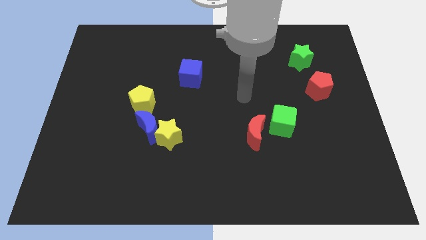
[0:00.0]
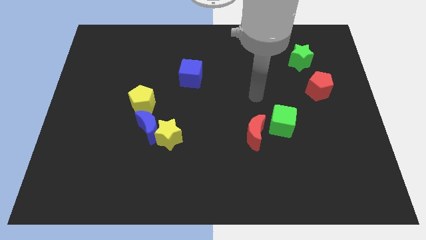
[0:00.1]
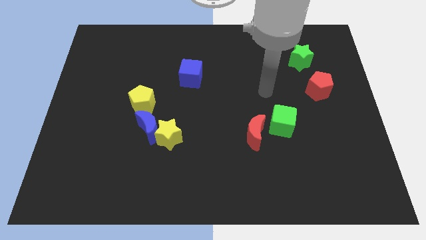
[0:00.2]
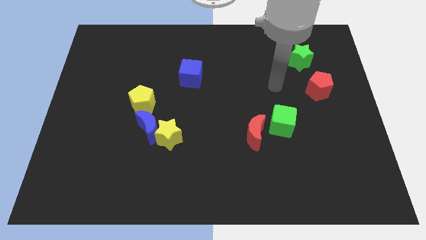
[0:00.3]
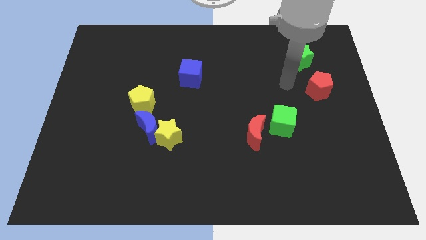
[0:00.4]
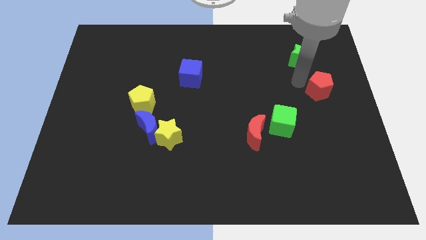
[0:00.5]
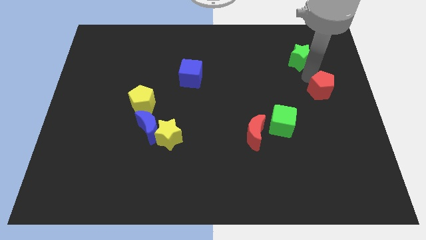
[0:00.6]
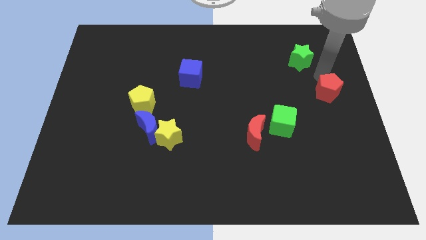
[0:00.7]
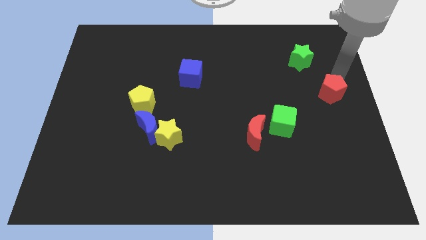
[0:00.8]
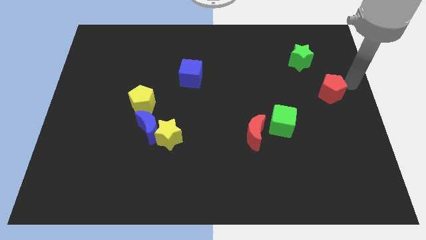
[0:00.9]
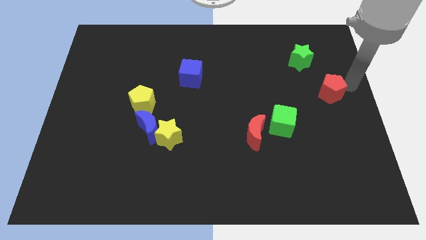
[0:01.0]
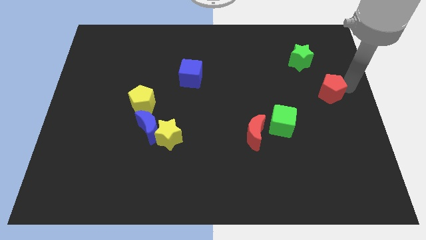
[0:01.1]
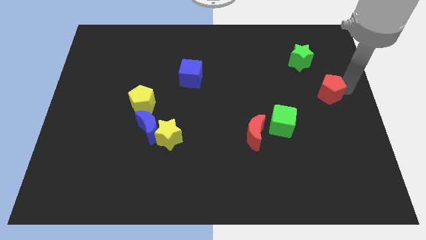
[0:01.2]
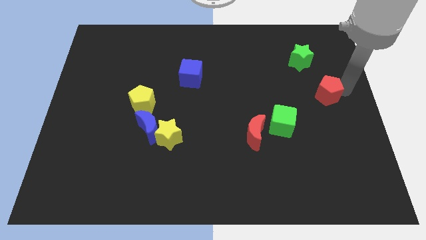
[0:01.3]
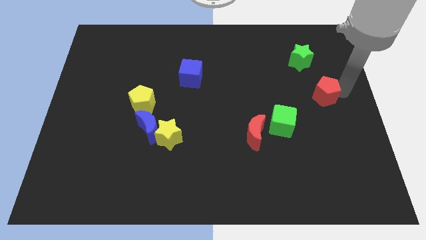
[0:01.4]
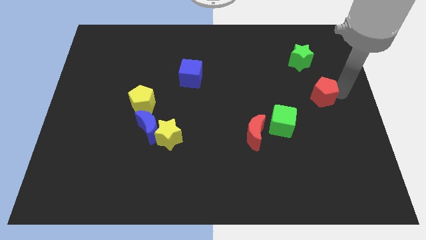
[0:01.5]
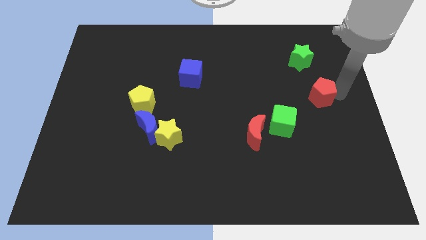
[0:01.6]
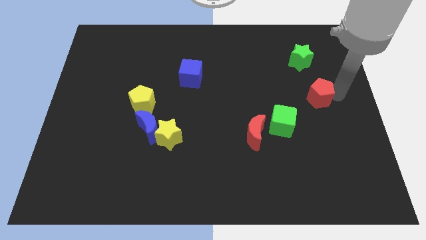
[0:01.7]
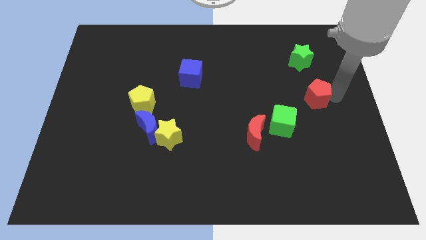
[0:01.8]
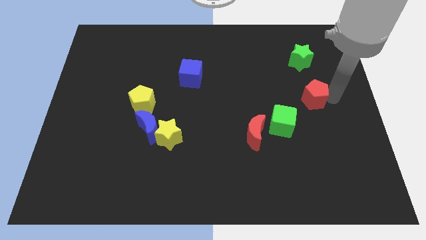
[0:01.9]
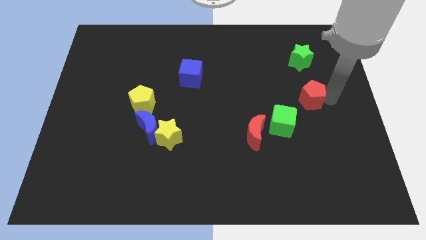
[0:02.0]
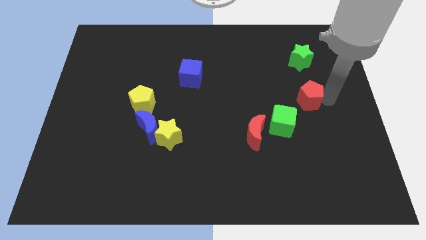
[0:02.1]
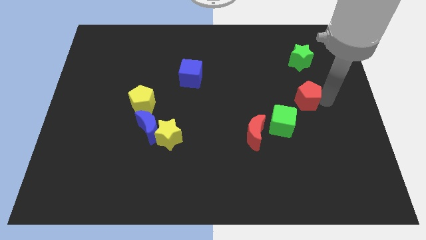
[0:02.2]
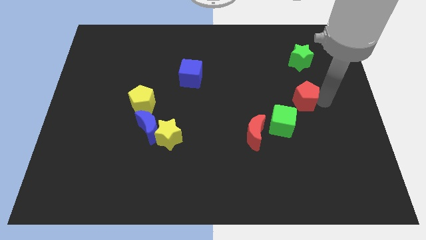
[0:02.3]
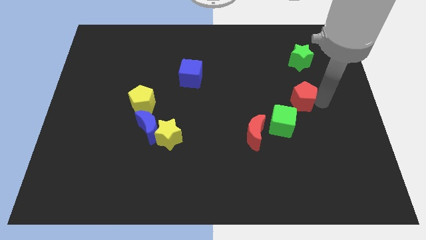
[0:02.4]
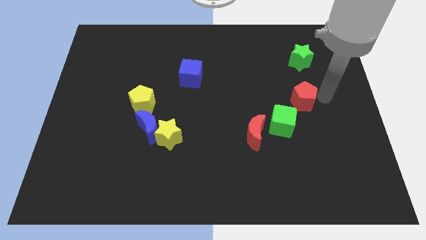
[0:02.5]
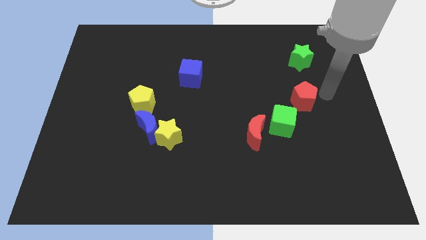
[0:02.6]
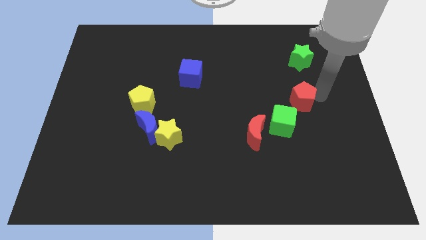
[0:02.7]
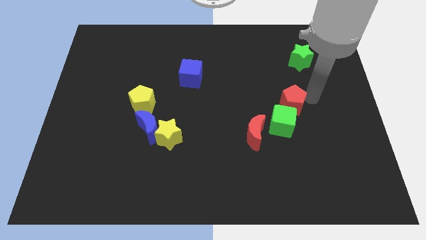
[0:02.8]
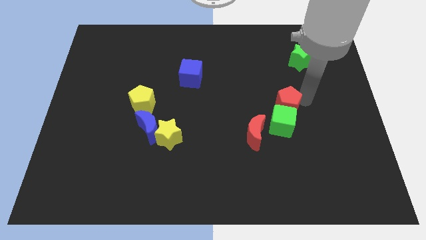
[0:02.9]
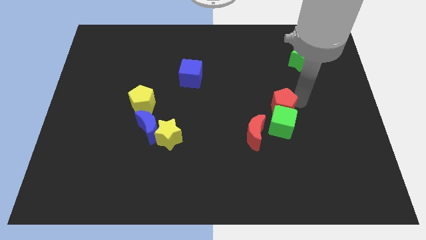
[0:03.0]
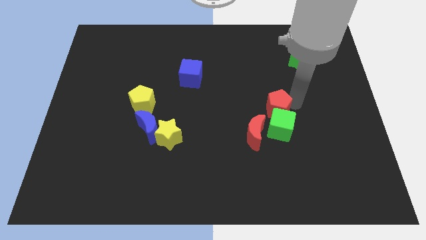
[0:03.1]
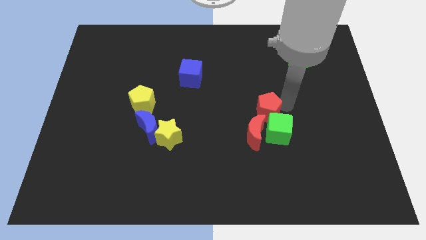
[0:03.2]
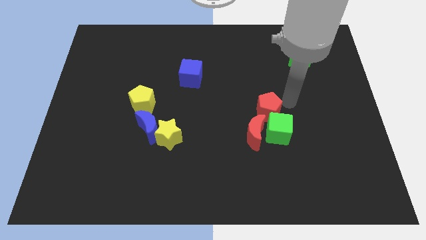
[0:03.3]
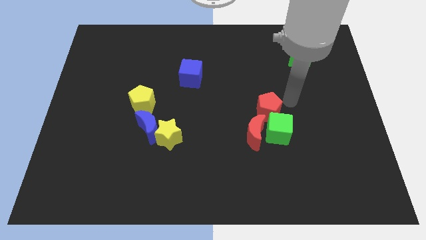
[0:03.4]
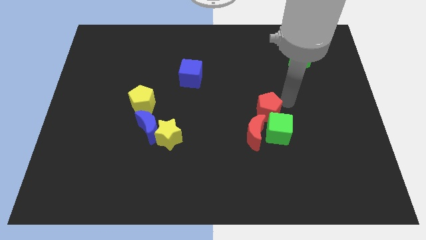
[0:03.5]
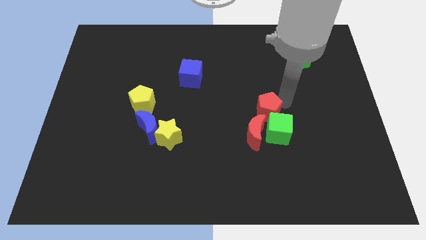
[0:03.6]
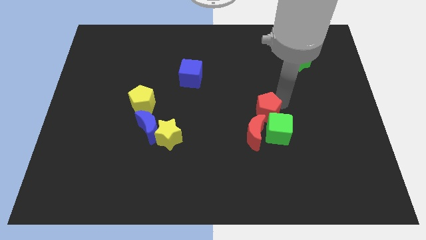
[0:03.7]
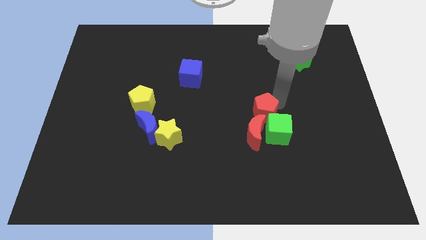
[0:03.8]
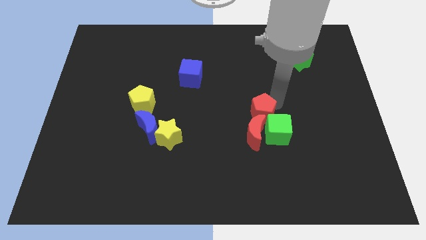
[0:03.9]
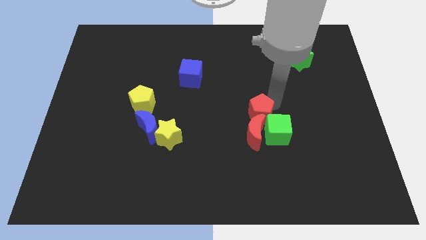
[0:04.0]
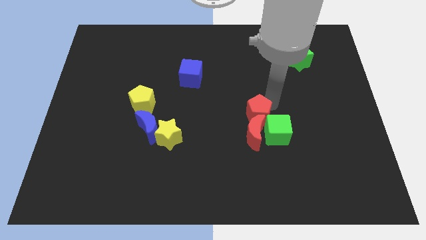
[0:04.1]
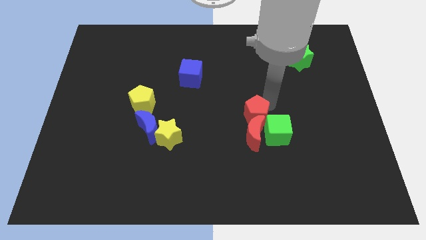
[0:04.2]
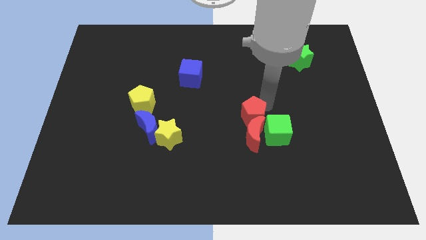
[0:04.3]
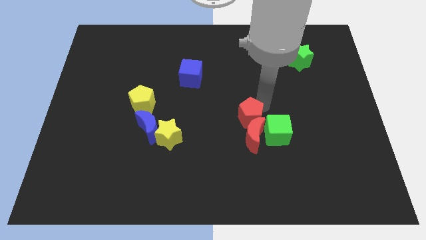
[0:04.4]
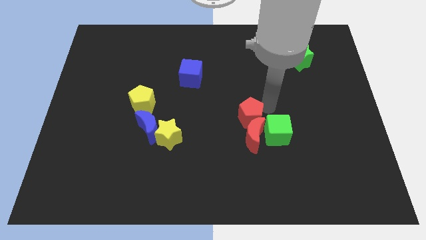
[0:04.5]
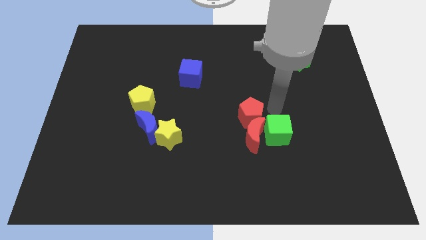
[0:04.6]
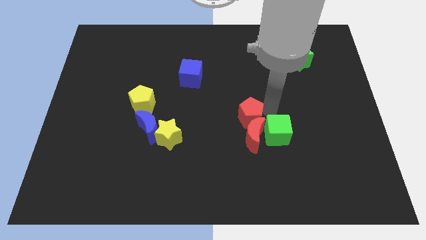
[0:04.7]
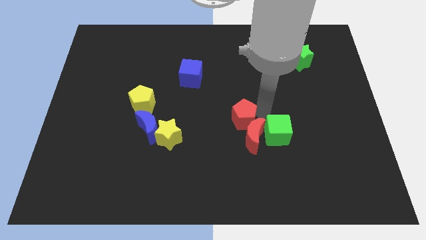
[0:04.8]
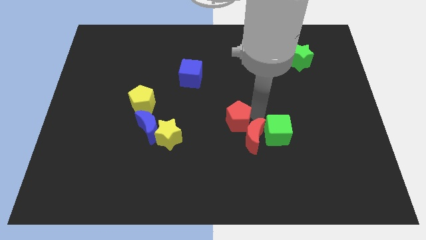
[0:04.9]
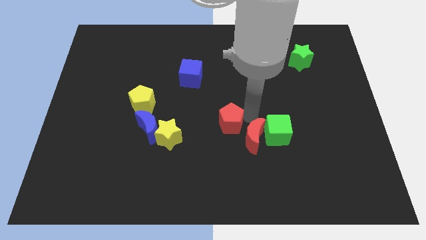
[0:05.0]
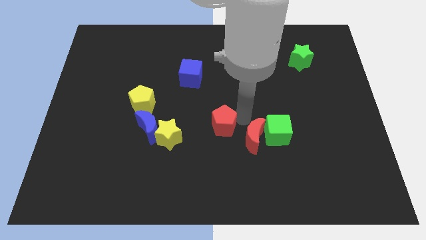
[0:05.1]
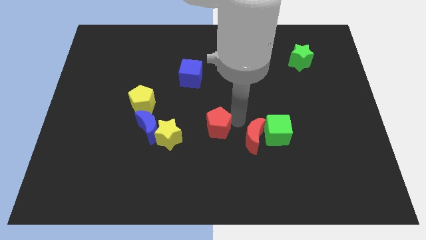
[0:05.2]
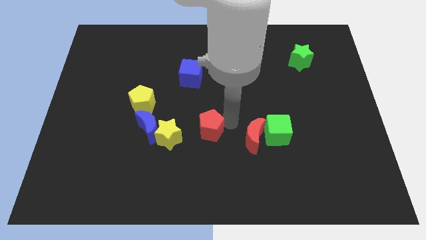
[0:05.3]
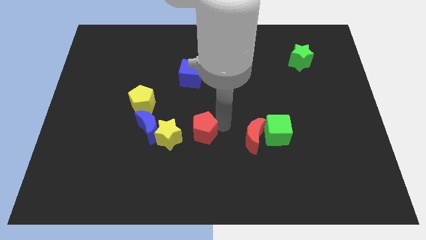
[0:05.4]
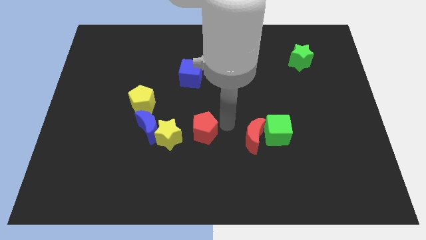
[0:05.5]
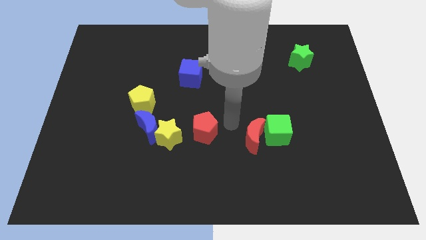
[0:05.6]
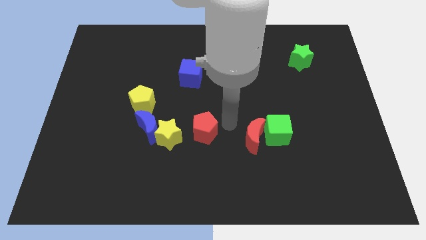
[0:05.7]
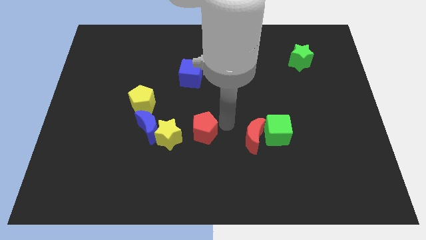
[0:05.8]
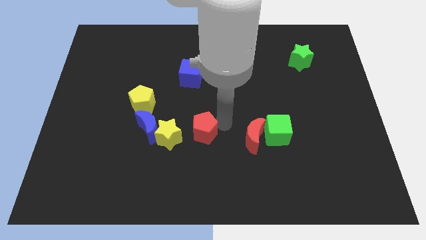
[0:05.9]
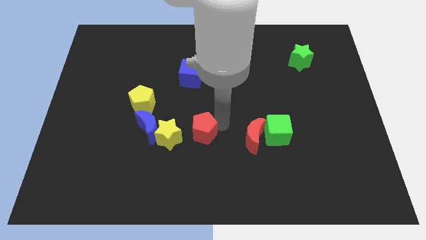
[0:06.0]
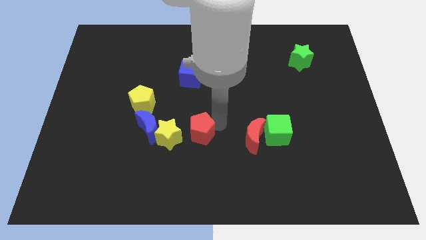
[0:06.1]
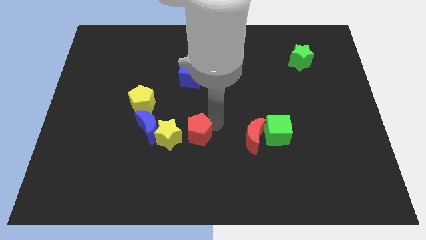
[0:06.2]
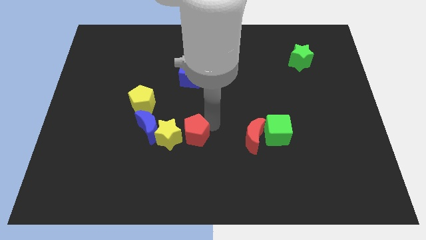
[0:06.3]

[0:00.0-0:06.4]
move the red pentagon next to the yellow star

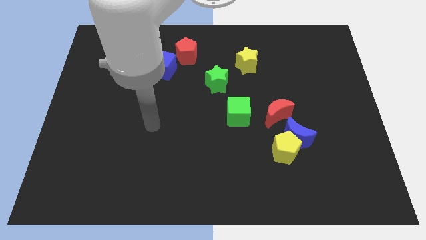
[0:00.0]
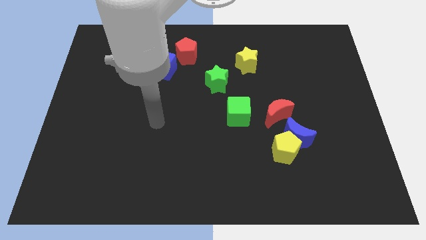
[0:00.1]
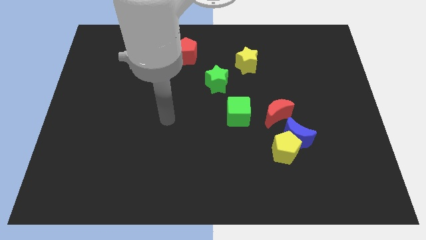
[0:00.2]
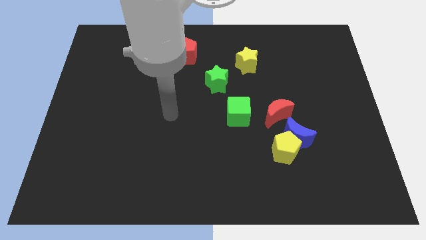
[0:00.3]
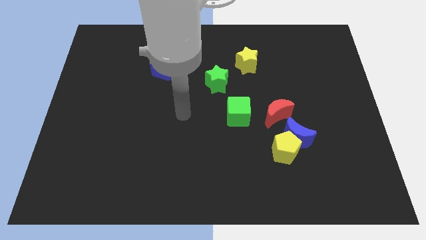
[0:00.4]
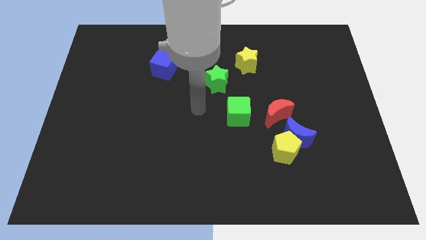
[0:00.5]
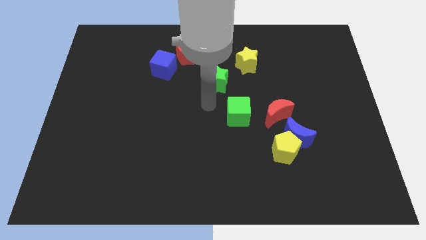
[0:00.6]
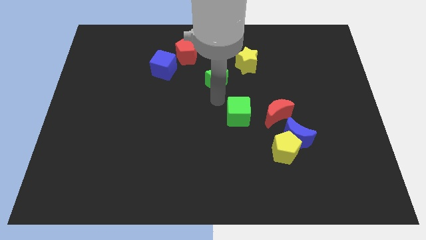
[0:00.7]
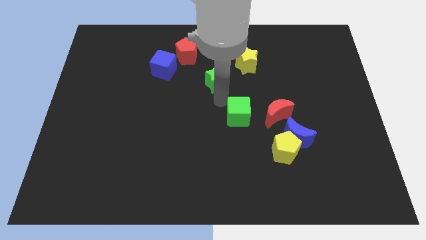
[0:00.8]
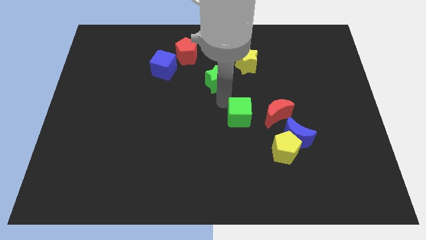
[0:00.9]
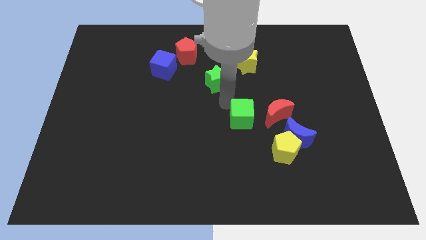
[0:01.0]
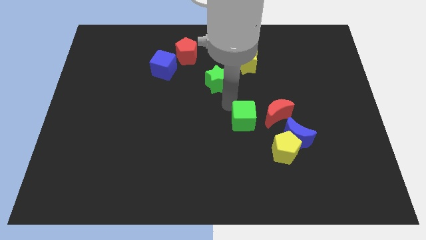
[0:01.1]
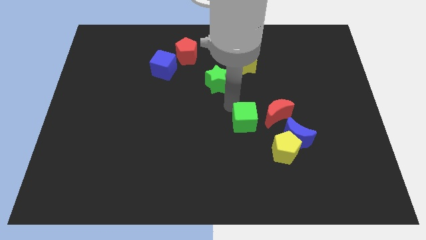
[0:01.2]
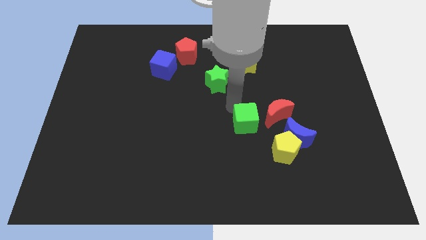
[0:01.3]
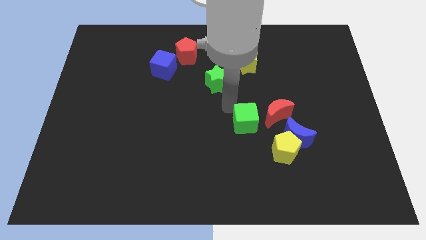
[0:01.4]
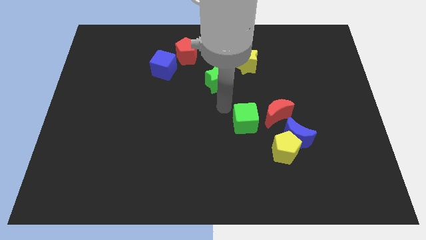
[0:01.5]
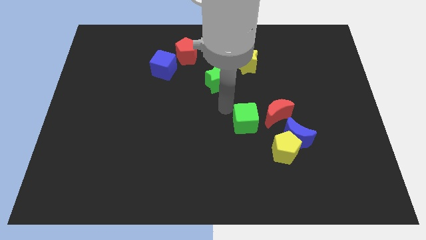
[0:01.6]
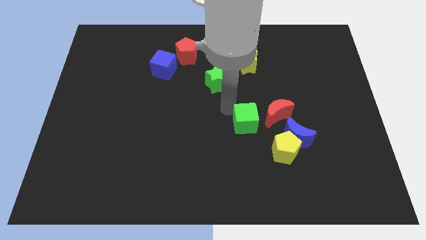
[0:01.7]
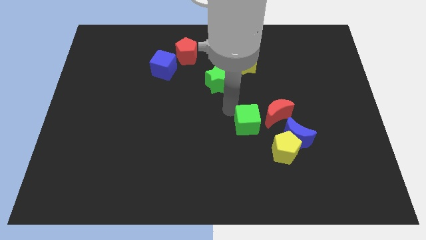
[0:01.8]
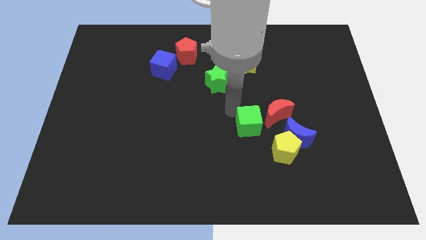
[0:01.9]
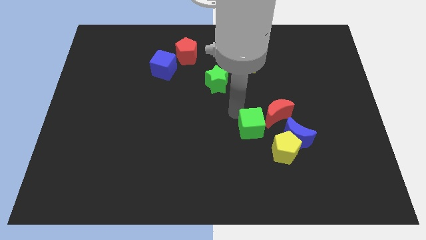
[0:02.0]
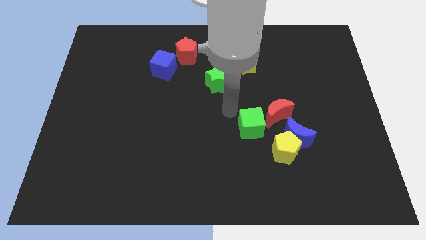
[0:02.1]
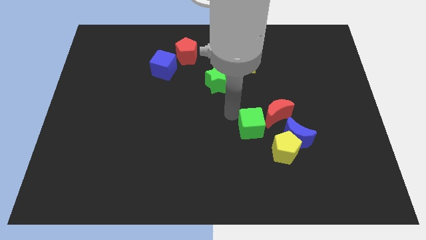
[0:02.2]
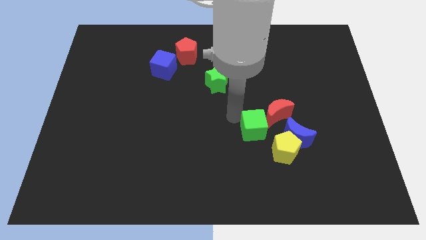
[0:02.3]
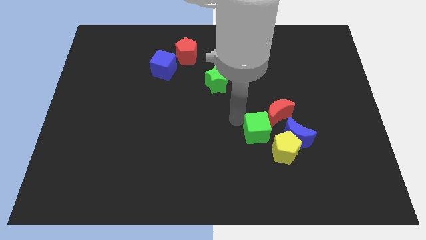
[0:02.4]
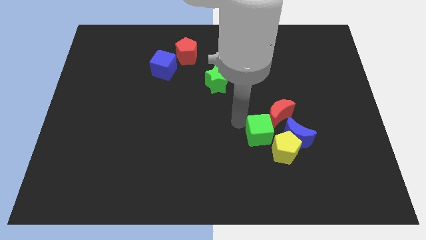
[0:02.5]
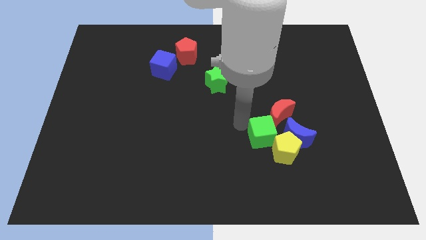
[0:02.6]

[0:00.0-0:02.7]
push the green cube towards the yellow pentagon
